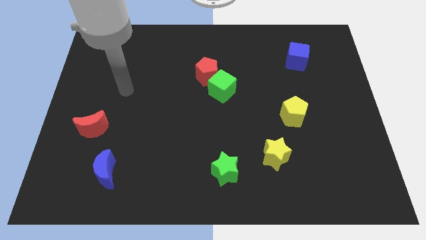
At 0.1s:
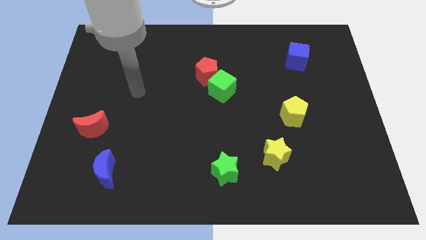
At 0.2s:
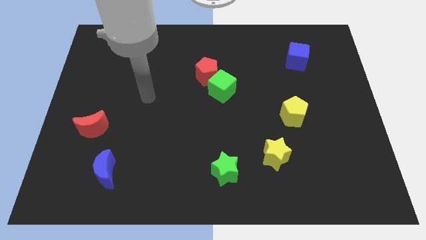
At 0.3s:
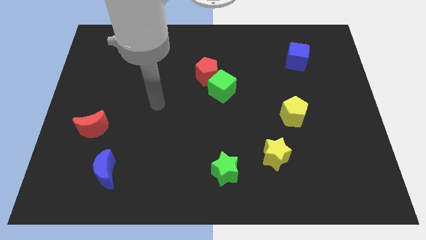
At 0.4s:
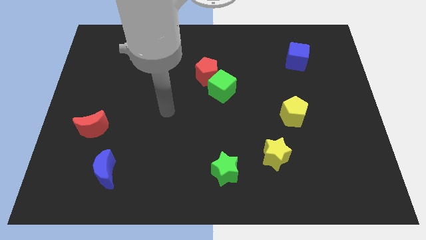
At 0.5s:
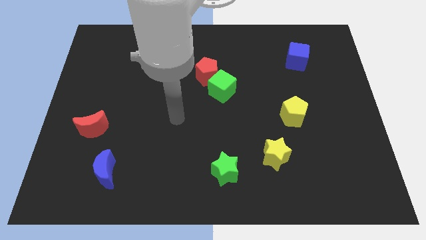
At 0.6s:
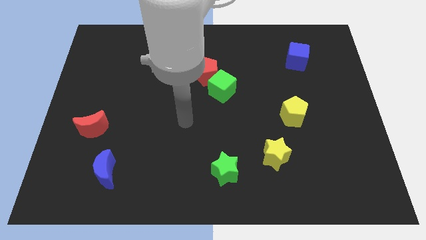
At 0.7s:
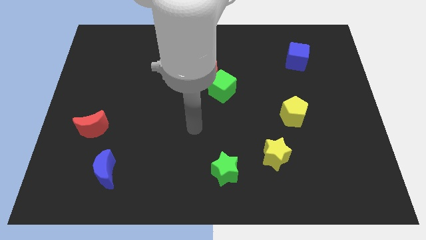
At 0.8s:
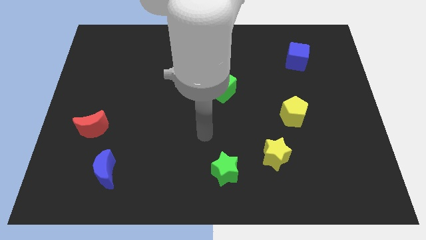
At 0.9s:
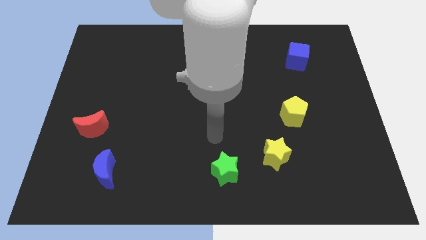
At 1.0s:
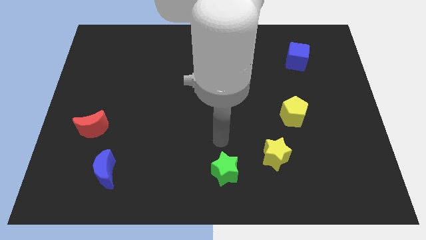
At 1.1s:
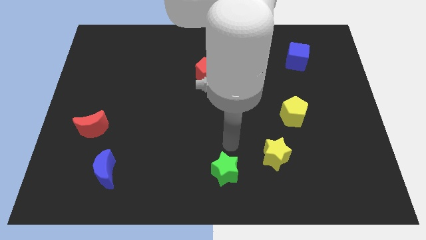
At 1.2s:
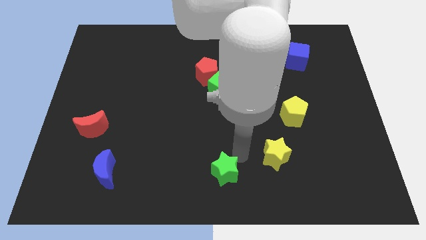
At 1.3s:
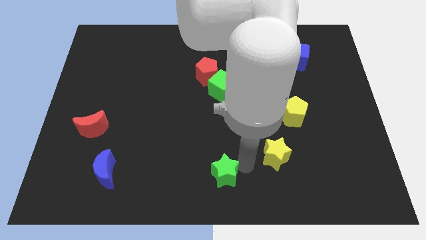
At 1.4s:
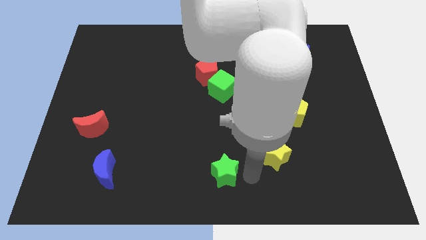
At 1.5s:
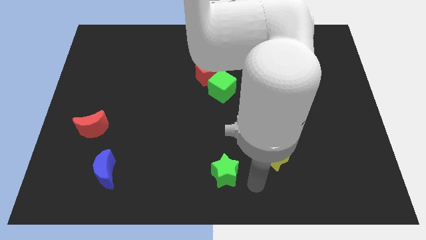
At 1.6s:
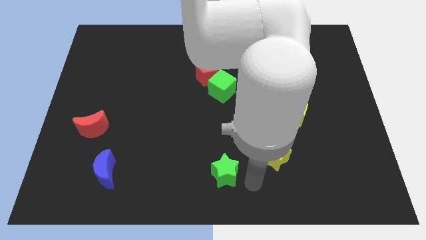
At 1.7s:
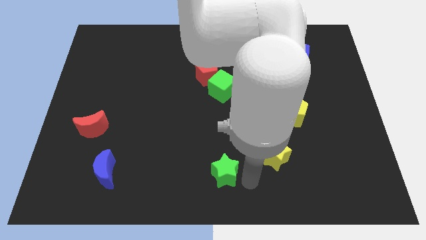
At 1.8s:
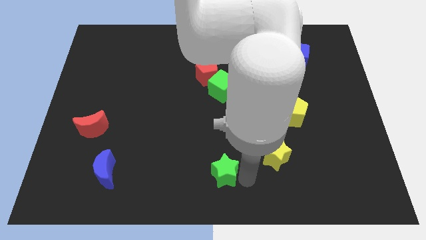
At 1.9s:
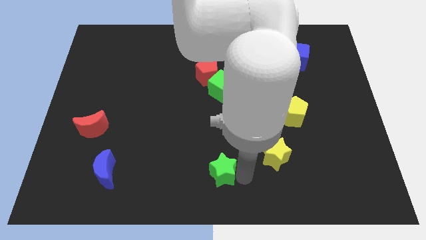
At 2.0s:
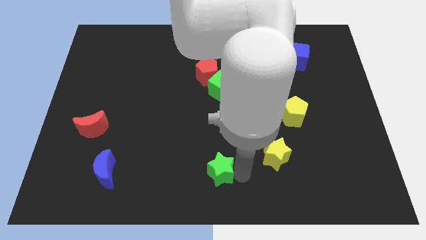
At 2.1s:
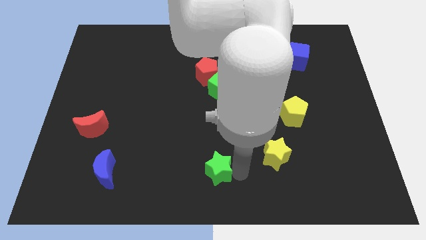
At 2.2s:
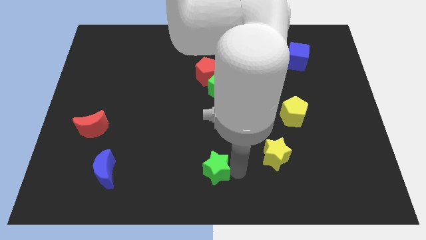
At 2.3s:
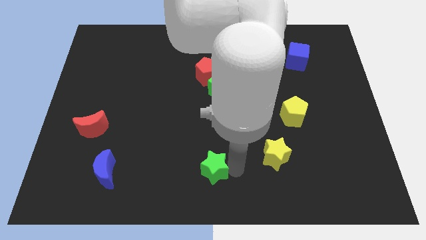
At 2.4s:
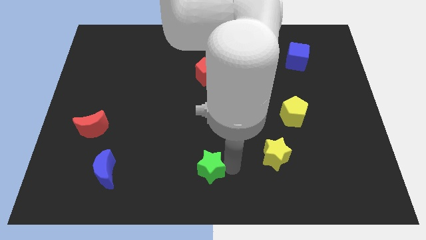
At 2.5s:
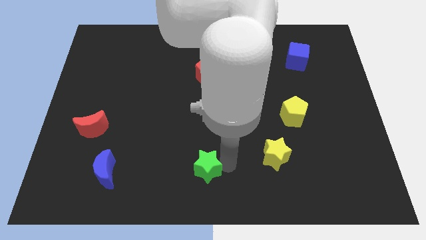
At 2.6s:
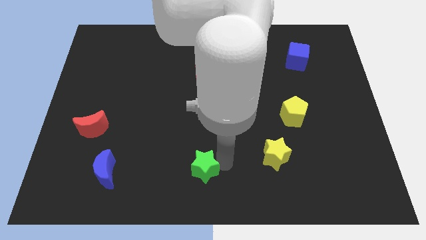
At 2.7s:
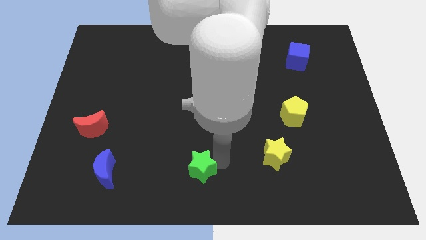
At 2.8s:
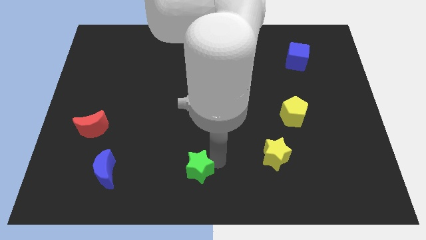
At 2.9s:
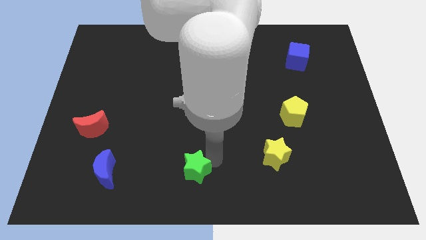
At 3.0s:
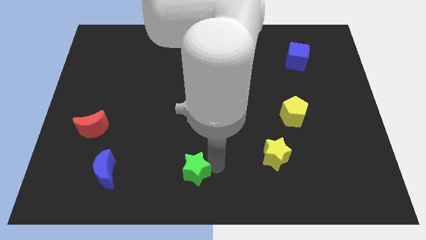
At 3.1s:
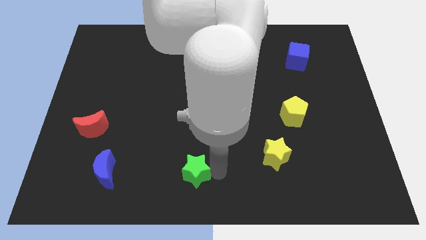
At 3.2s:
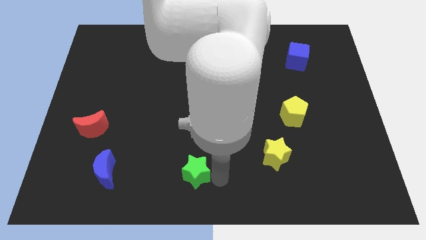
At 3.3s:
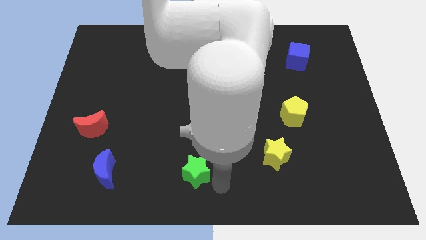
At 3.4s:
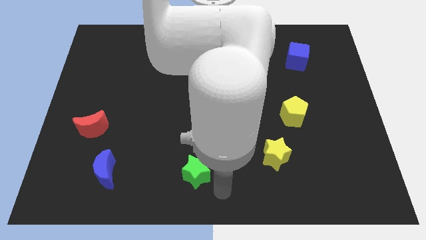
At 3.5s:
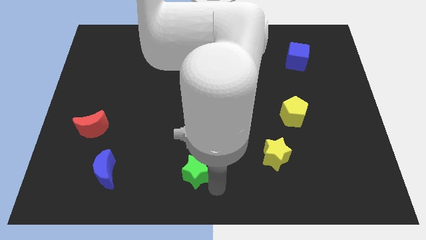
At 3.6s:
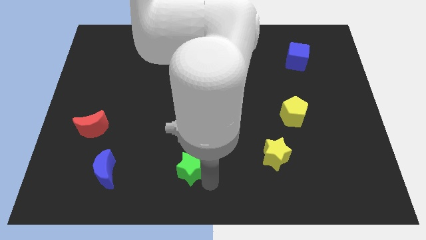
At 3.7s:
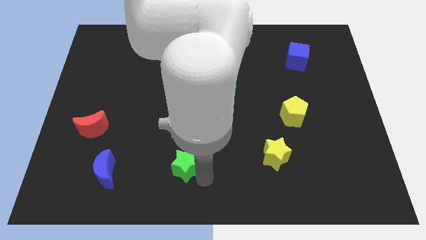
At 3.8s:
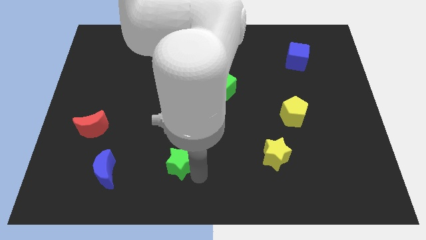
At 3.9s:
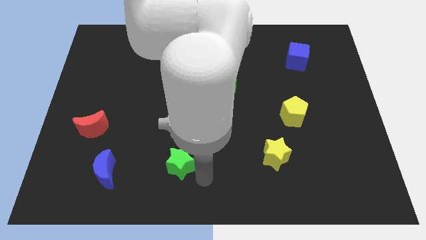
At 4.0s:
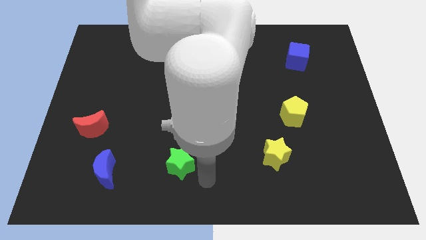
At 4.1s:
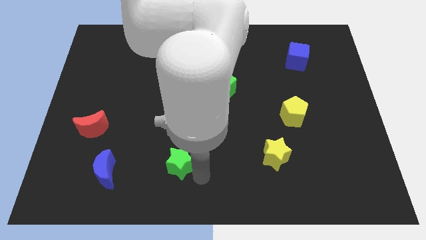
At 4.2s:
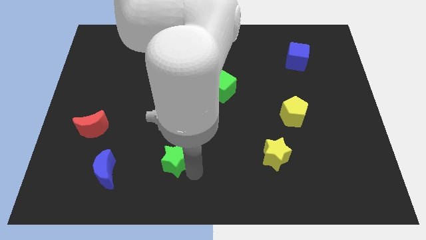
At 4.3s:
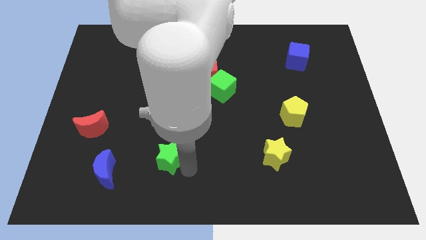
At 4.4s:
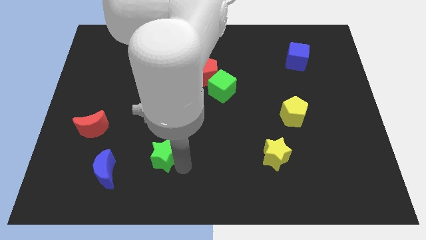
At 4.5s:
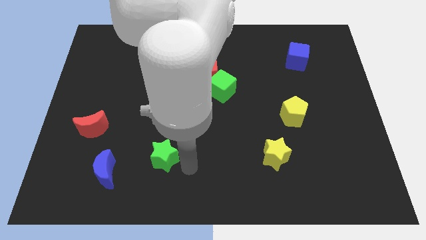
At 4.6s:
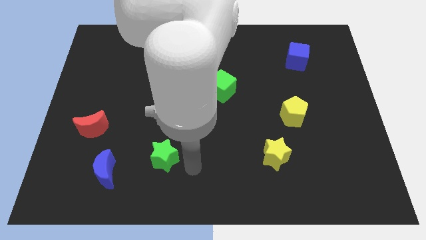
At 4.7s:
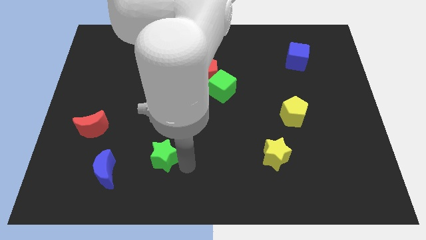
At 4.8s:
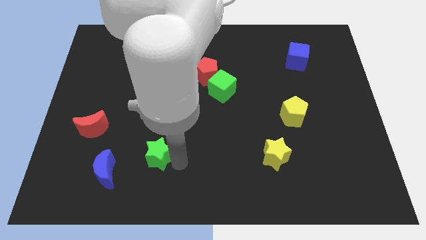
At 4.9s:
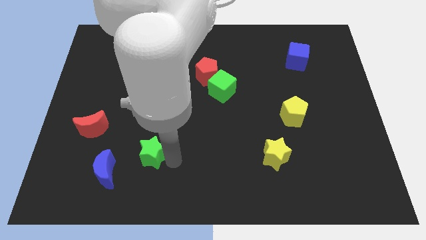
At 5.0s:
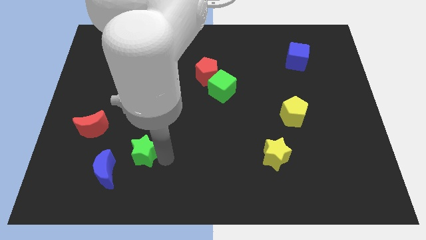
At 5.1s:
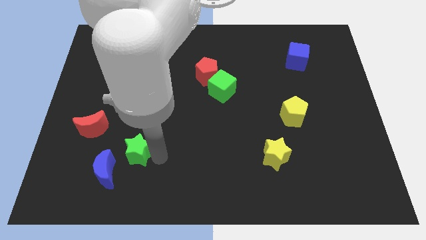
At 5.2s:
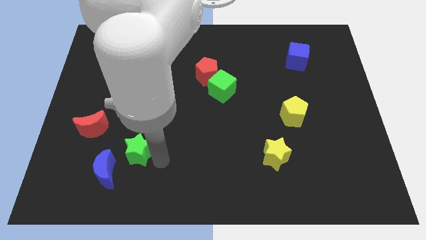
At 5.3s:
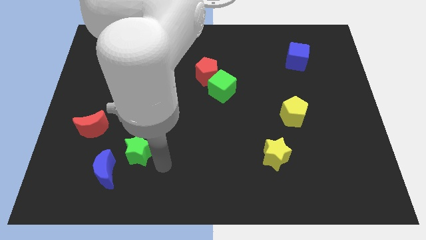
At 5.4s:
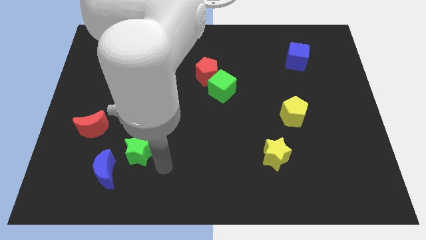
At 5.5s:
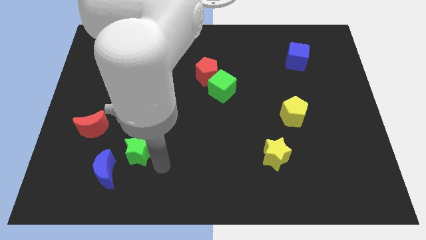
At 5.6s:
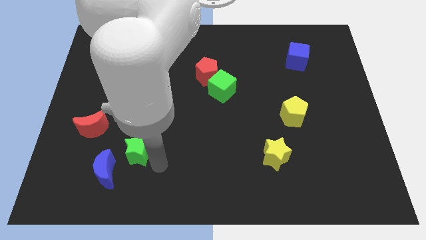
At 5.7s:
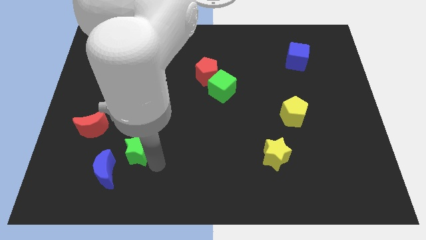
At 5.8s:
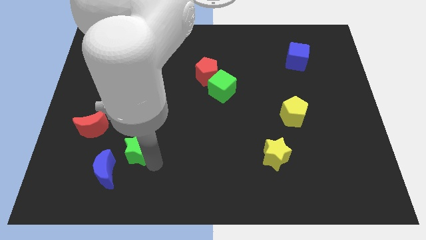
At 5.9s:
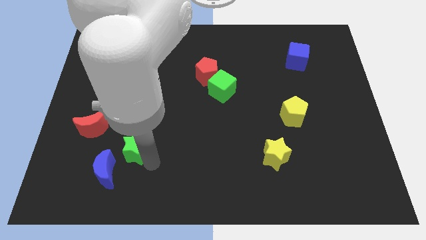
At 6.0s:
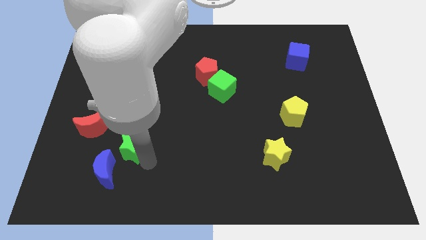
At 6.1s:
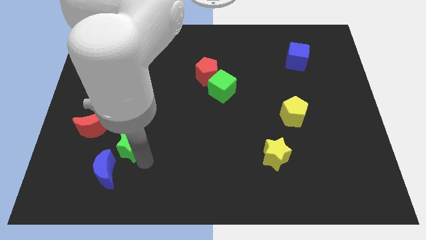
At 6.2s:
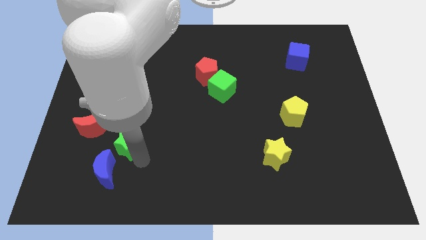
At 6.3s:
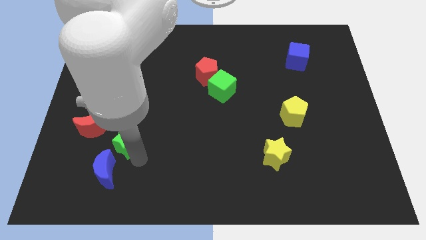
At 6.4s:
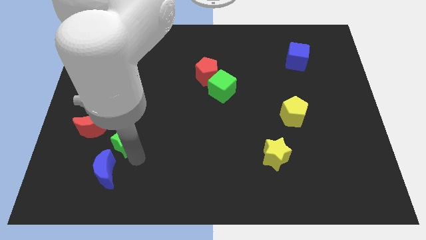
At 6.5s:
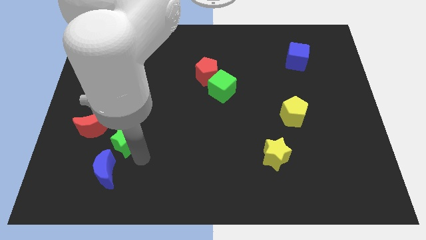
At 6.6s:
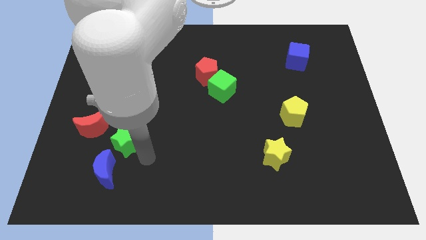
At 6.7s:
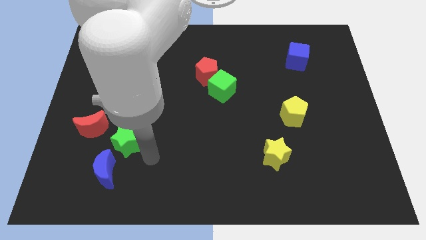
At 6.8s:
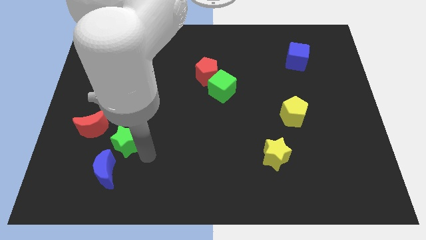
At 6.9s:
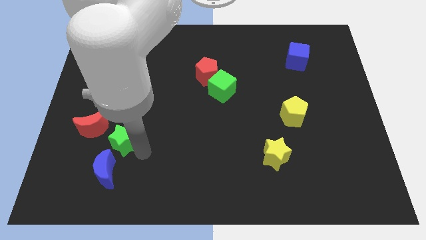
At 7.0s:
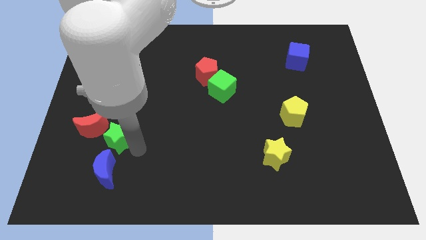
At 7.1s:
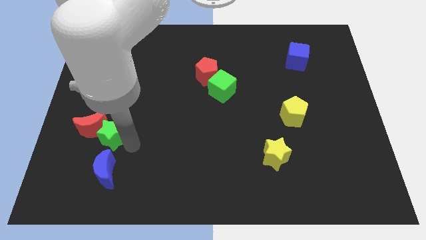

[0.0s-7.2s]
slide the green star close to the red moon

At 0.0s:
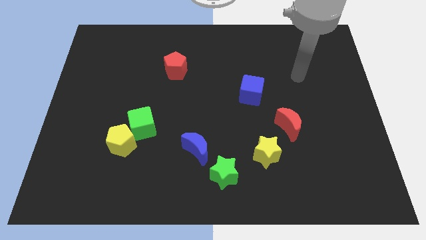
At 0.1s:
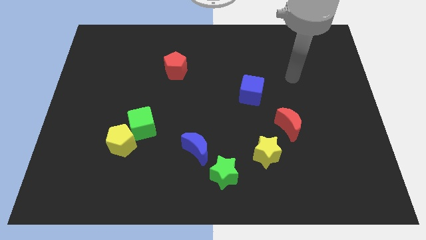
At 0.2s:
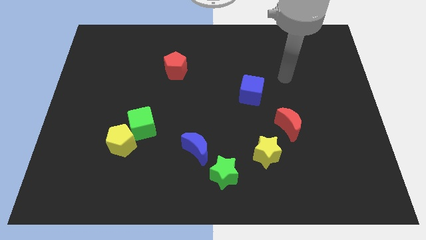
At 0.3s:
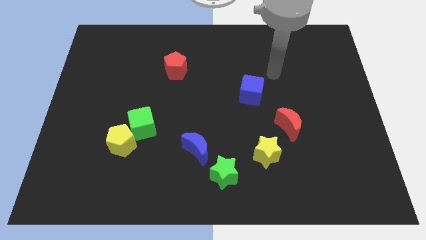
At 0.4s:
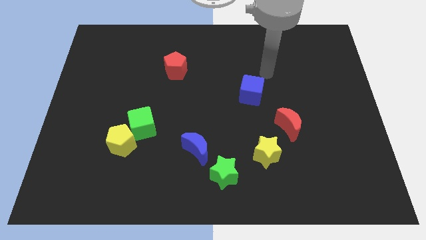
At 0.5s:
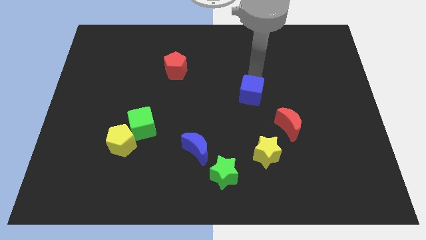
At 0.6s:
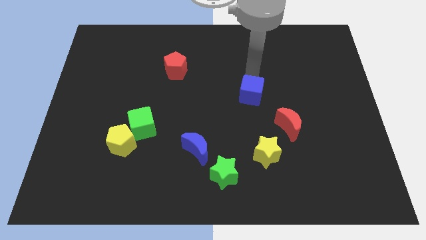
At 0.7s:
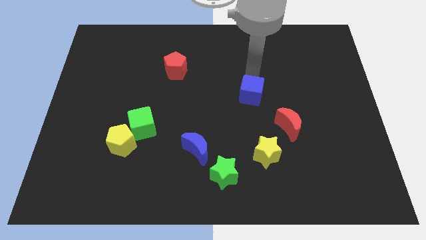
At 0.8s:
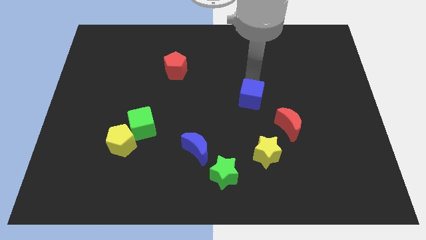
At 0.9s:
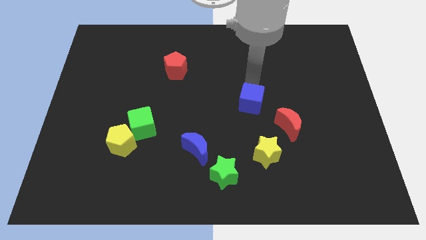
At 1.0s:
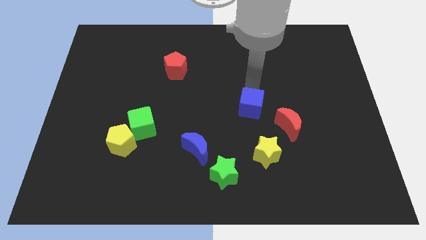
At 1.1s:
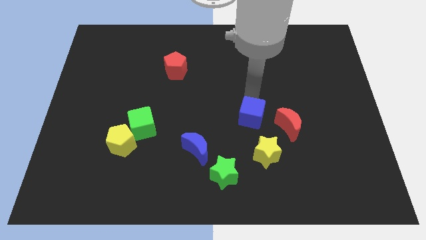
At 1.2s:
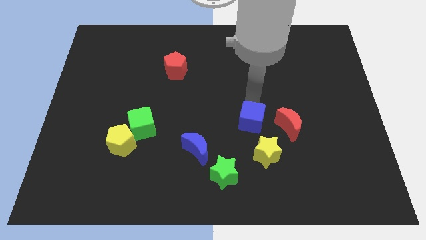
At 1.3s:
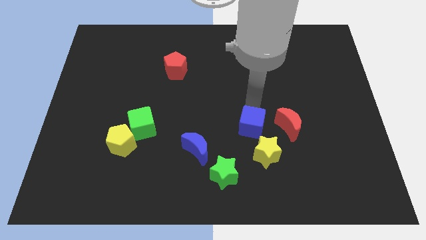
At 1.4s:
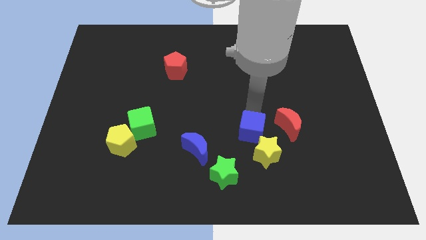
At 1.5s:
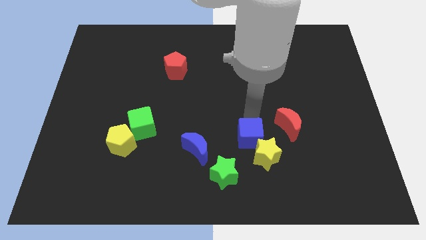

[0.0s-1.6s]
move the blue cube to the yellow star
